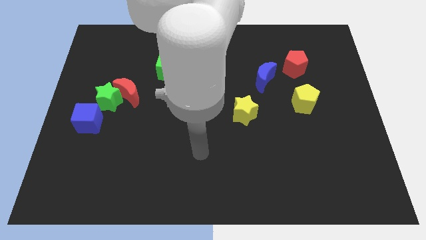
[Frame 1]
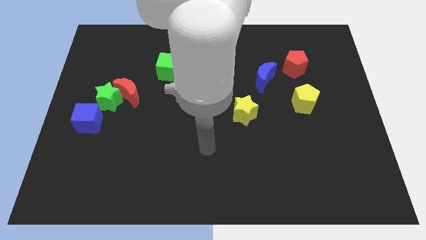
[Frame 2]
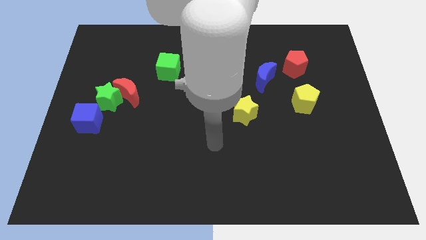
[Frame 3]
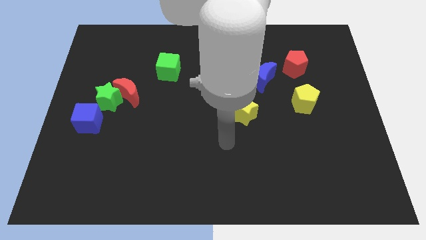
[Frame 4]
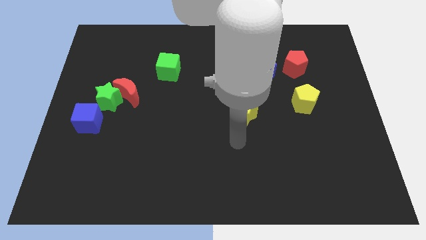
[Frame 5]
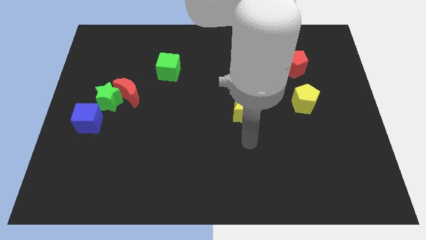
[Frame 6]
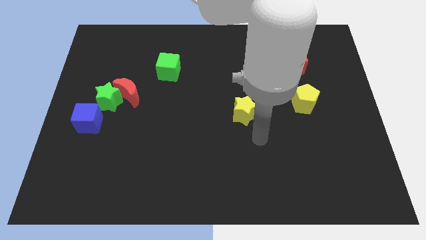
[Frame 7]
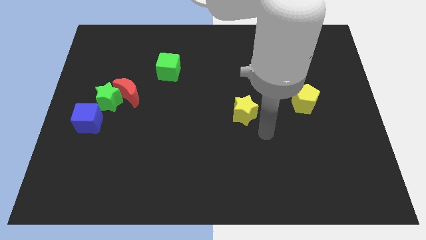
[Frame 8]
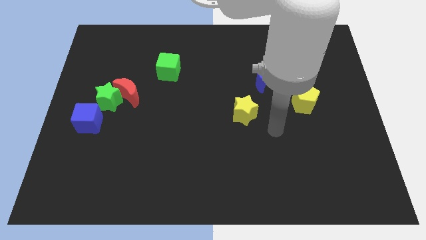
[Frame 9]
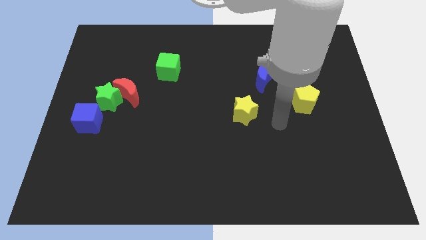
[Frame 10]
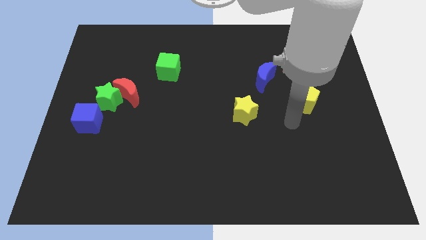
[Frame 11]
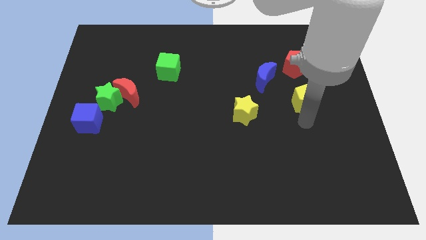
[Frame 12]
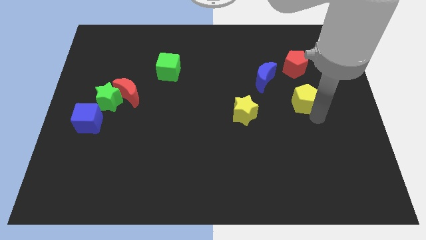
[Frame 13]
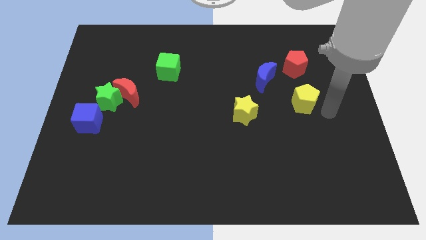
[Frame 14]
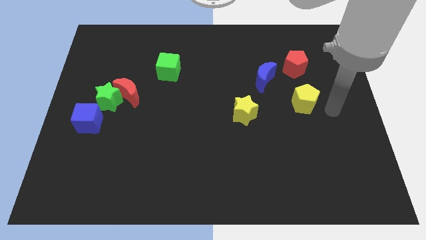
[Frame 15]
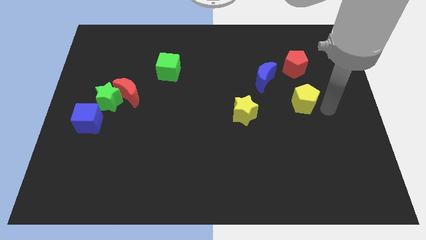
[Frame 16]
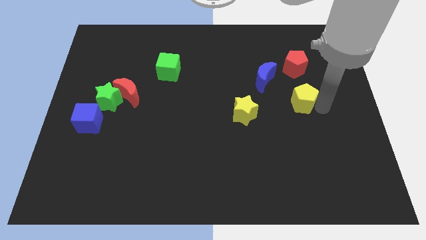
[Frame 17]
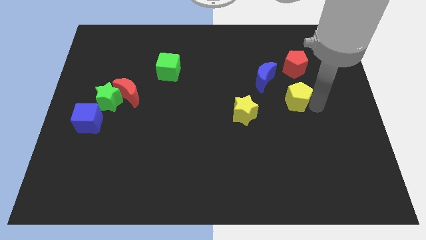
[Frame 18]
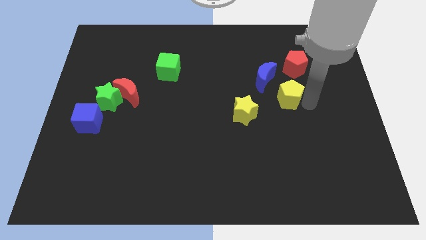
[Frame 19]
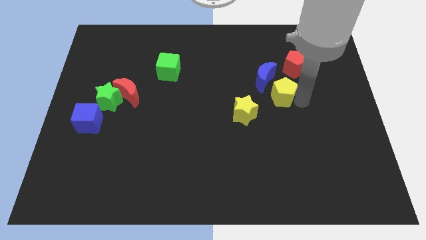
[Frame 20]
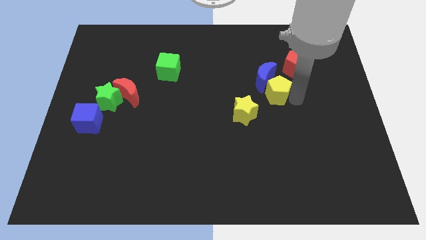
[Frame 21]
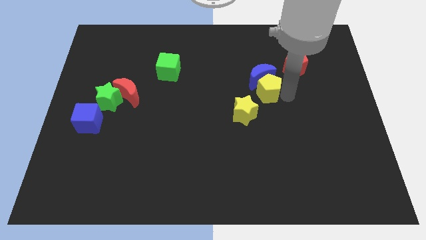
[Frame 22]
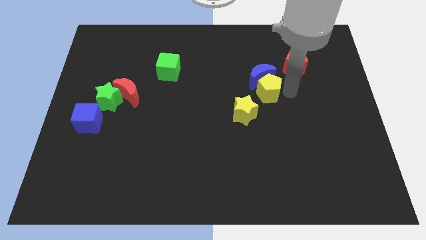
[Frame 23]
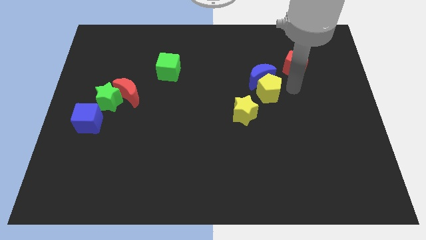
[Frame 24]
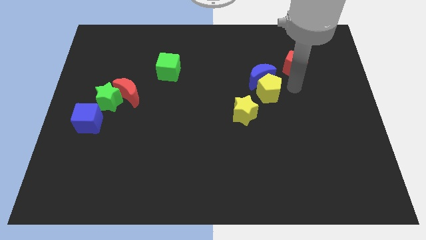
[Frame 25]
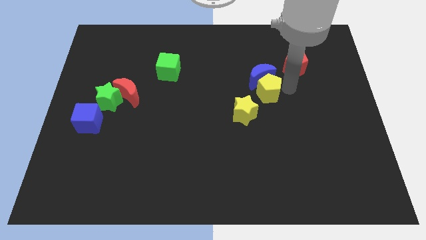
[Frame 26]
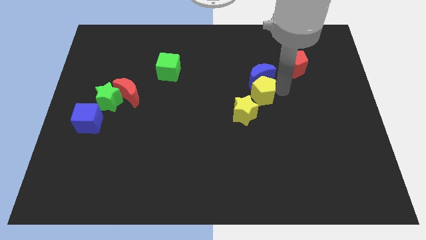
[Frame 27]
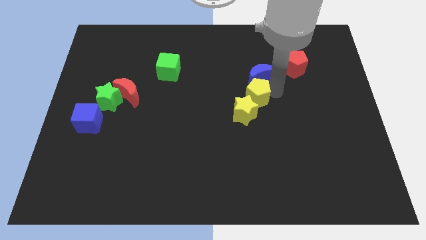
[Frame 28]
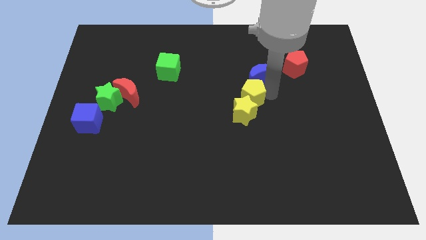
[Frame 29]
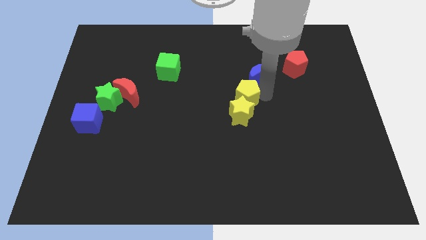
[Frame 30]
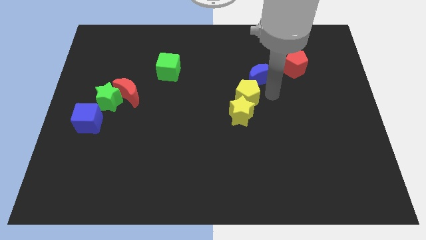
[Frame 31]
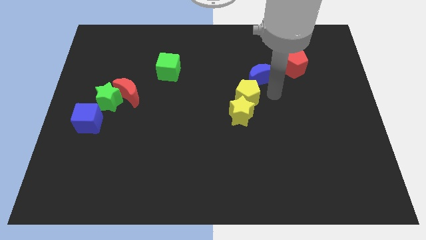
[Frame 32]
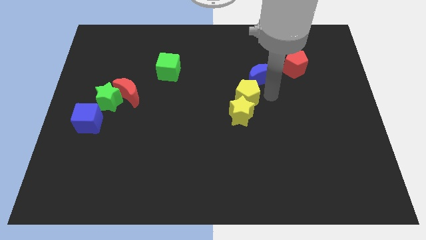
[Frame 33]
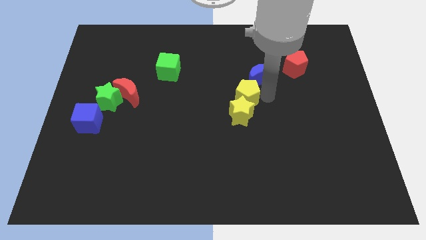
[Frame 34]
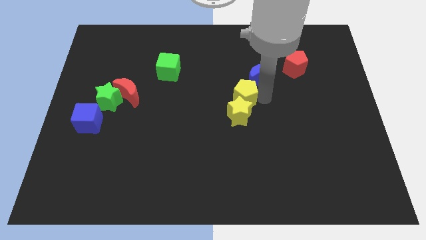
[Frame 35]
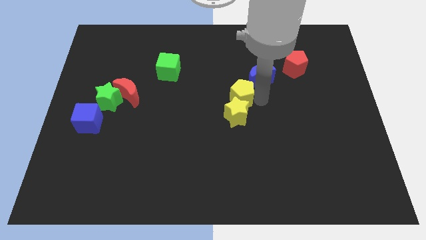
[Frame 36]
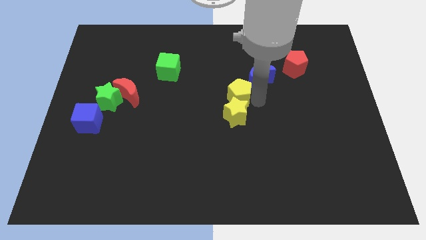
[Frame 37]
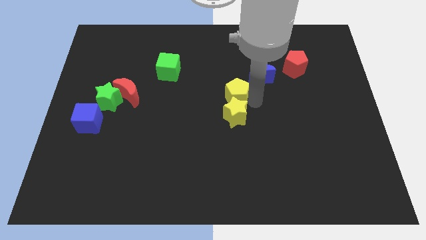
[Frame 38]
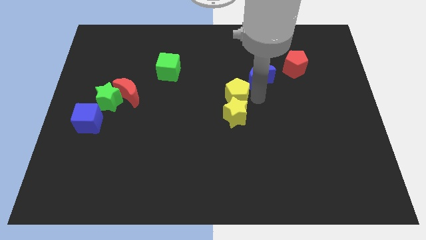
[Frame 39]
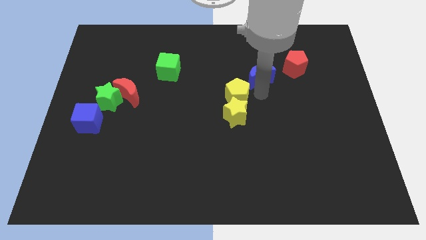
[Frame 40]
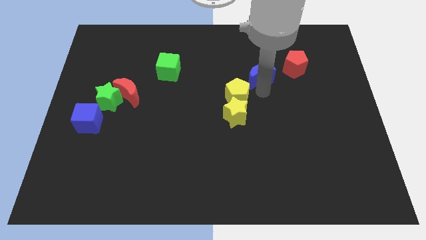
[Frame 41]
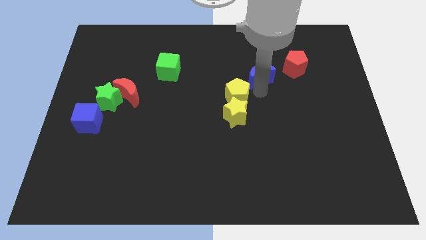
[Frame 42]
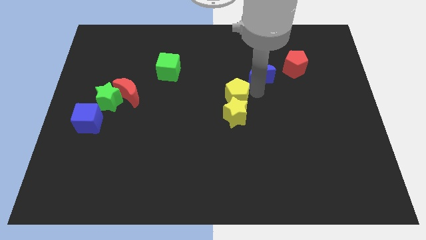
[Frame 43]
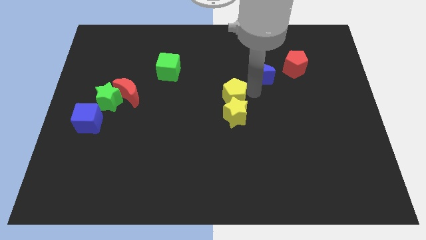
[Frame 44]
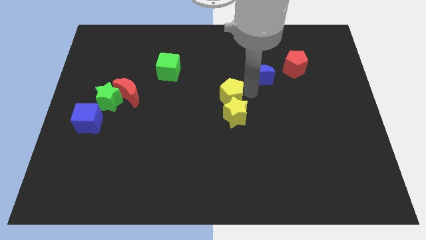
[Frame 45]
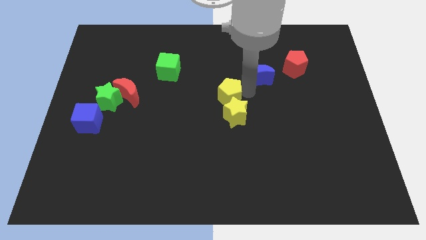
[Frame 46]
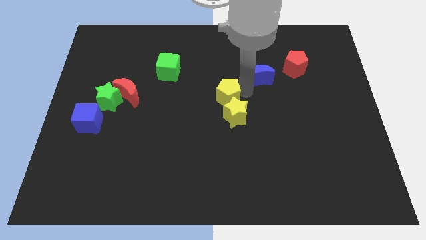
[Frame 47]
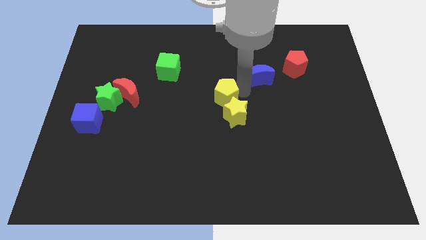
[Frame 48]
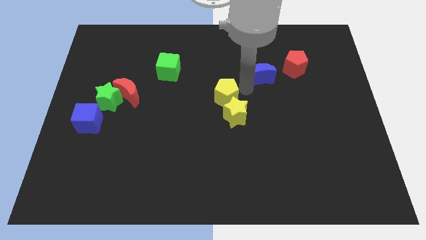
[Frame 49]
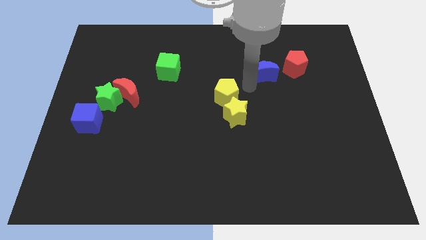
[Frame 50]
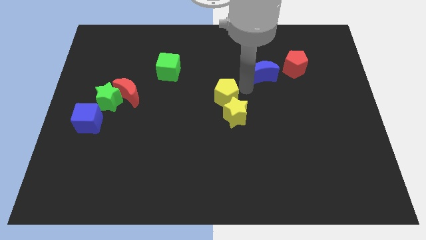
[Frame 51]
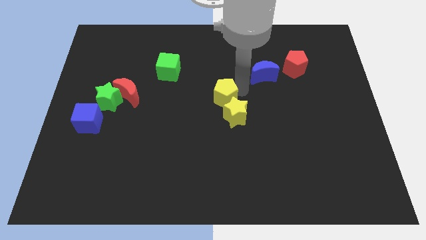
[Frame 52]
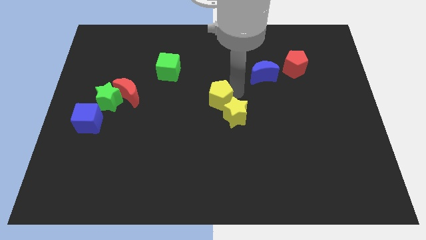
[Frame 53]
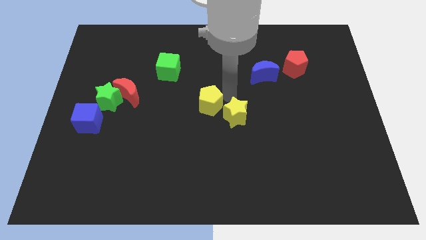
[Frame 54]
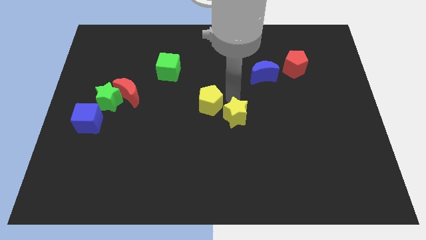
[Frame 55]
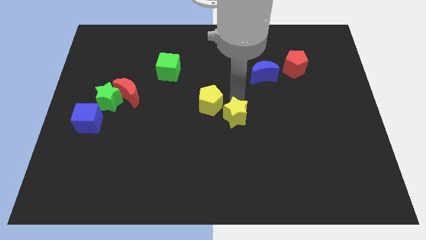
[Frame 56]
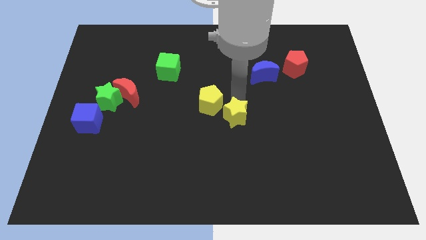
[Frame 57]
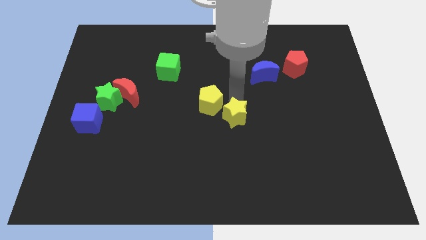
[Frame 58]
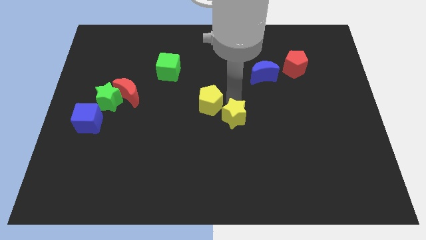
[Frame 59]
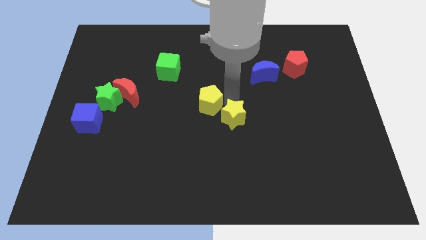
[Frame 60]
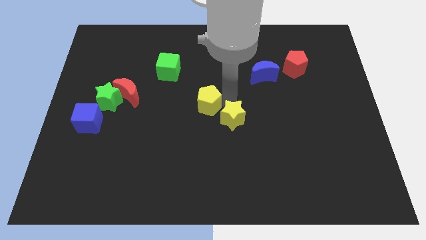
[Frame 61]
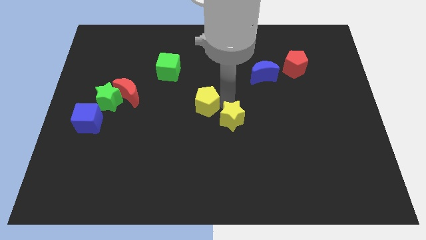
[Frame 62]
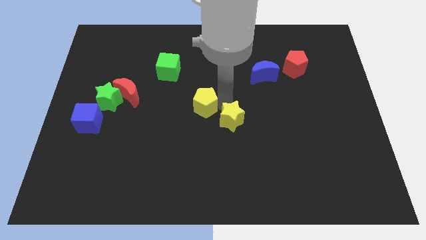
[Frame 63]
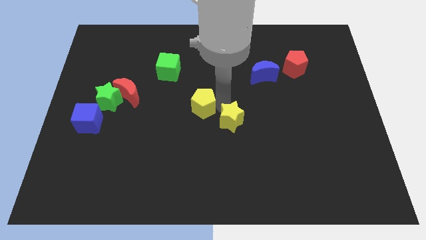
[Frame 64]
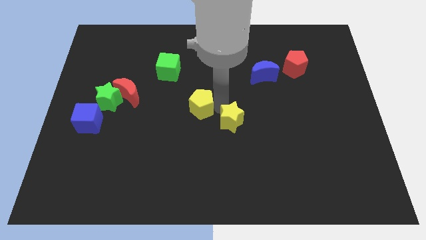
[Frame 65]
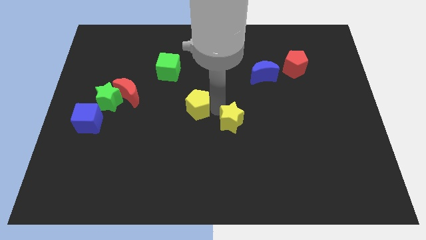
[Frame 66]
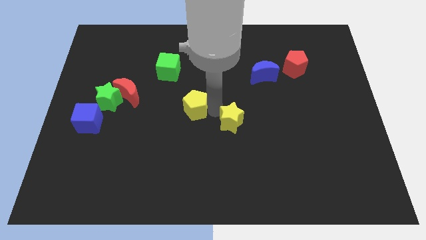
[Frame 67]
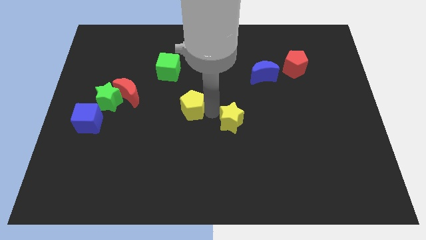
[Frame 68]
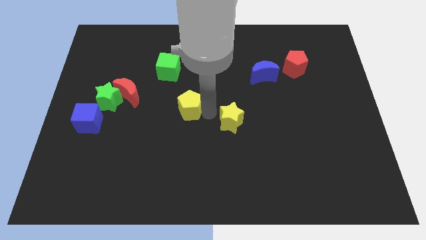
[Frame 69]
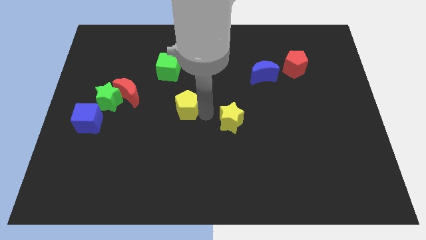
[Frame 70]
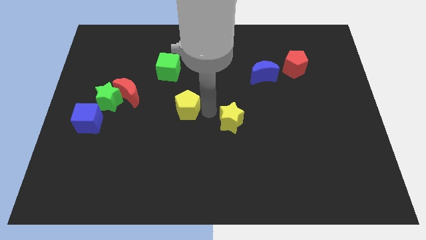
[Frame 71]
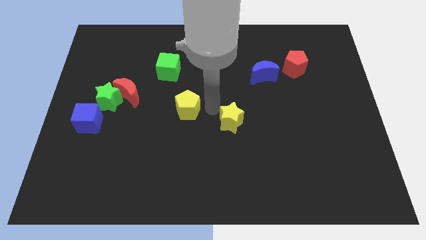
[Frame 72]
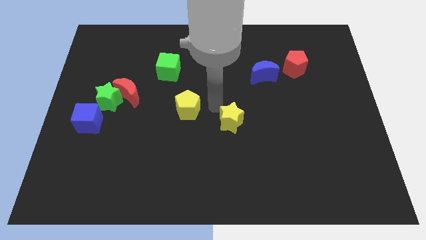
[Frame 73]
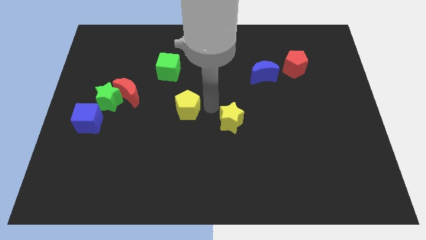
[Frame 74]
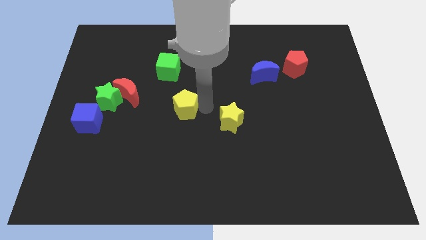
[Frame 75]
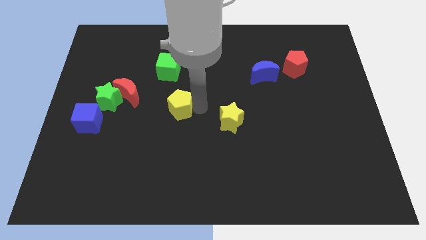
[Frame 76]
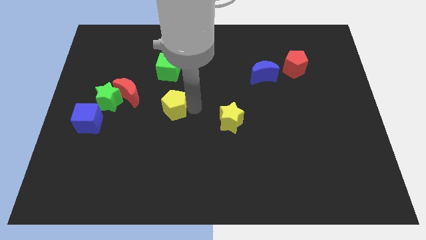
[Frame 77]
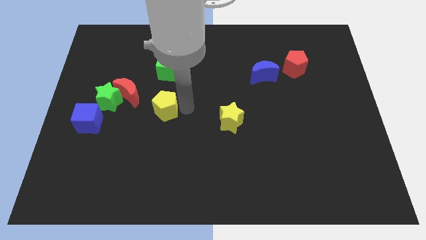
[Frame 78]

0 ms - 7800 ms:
move the yellow pentagon diagonally down and to the right of the red moon
